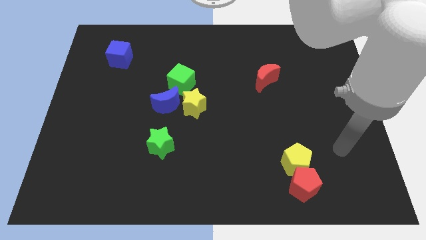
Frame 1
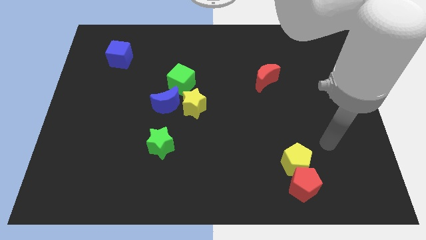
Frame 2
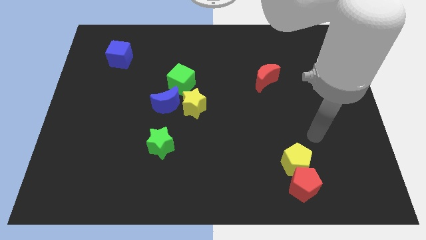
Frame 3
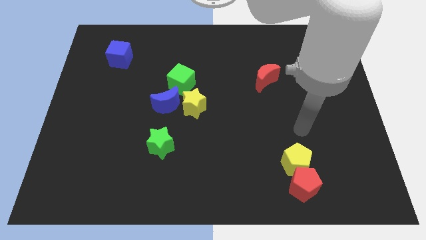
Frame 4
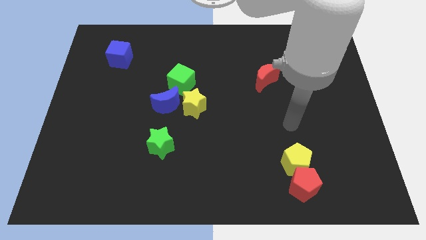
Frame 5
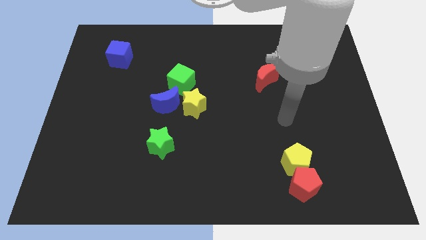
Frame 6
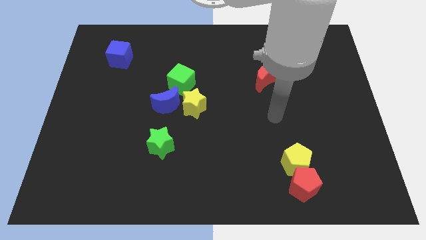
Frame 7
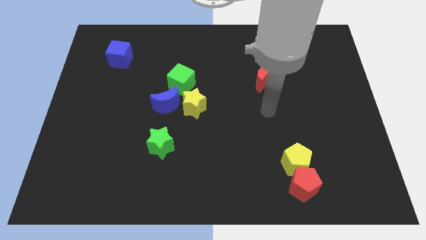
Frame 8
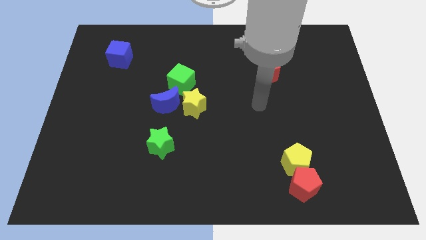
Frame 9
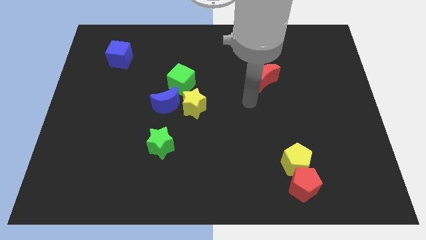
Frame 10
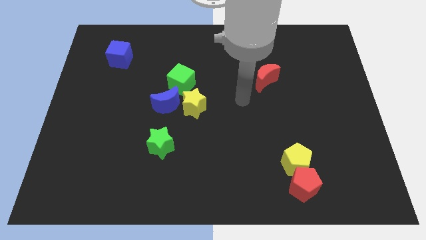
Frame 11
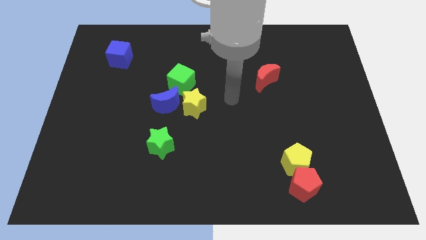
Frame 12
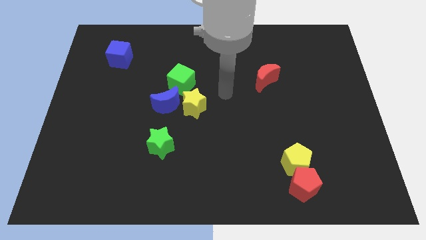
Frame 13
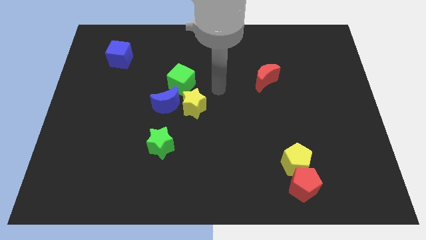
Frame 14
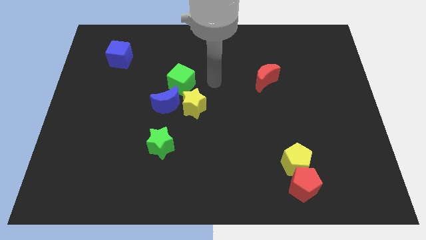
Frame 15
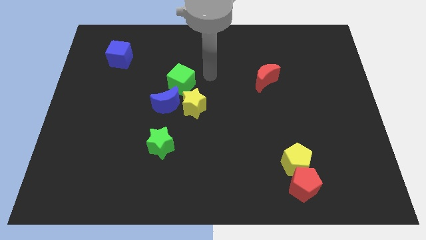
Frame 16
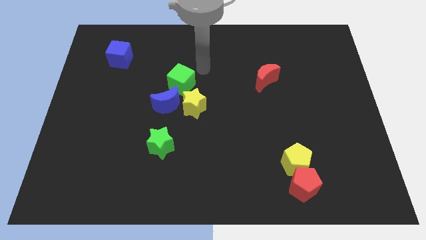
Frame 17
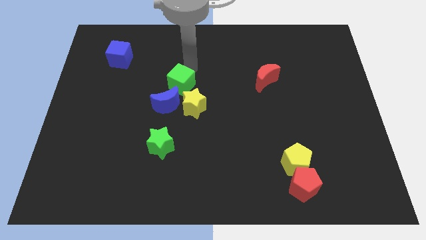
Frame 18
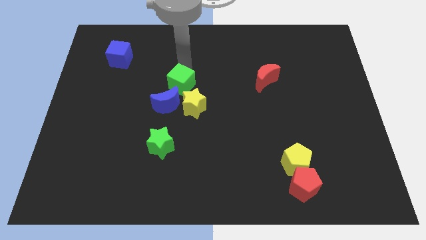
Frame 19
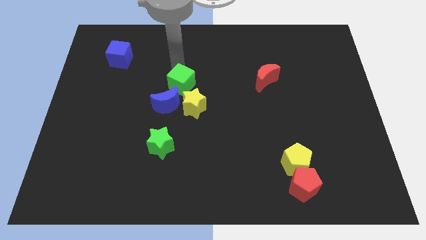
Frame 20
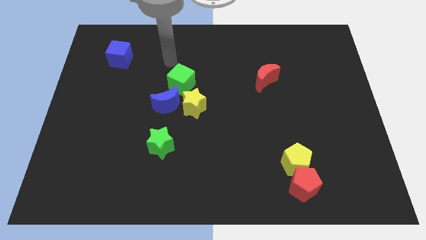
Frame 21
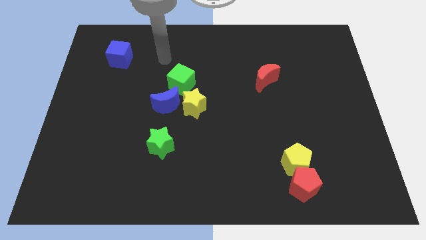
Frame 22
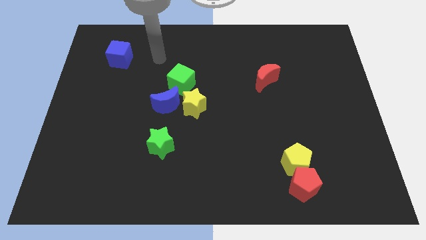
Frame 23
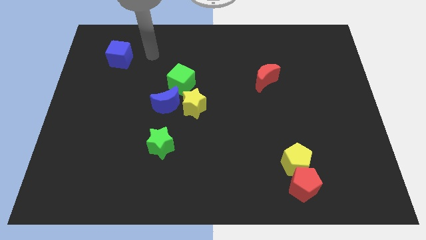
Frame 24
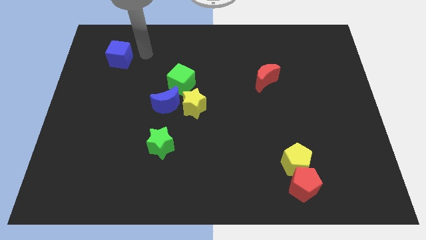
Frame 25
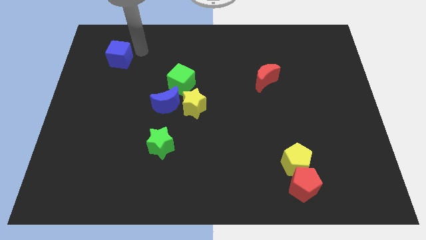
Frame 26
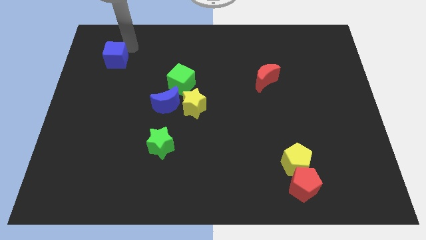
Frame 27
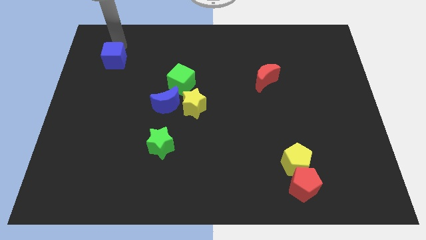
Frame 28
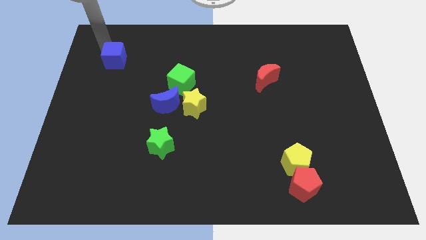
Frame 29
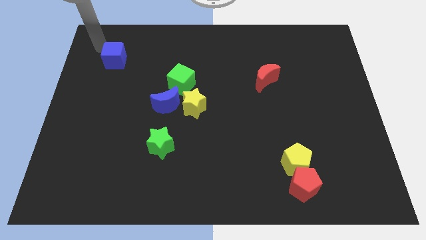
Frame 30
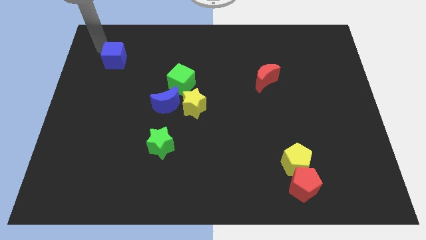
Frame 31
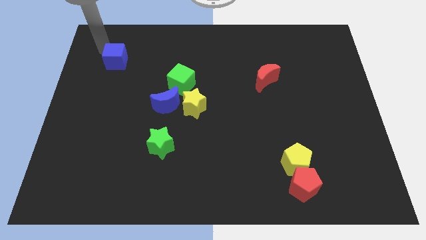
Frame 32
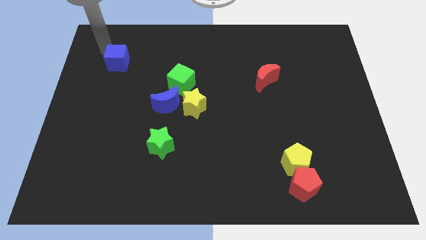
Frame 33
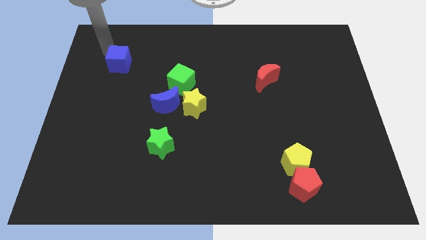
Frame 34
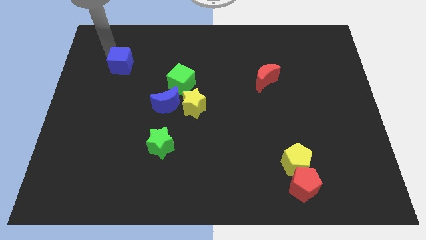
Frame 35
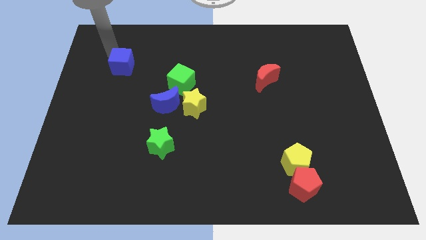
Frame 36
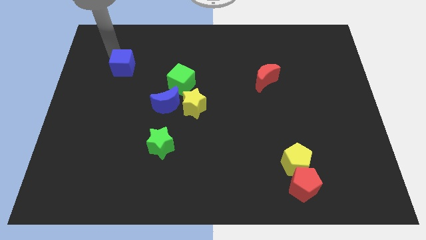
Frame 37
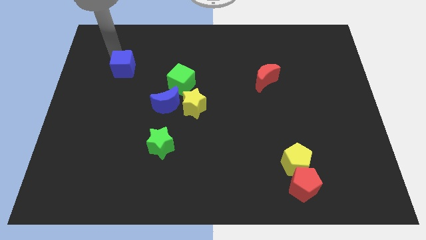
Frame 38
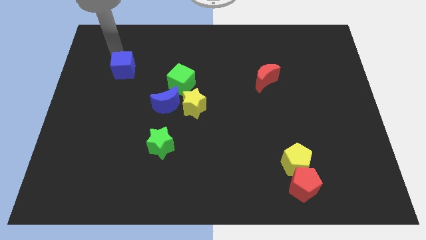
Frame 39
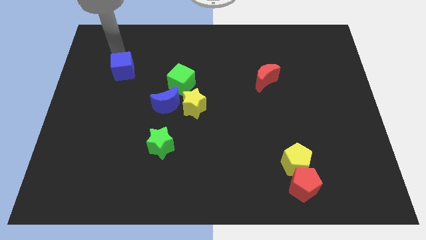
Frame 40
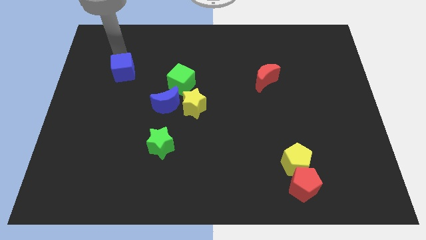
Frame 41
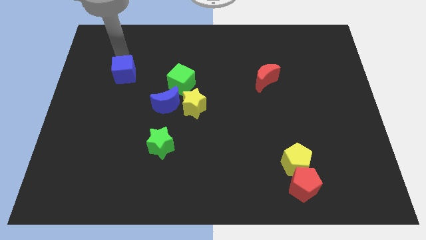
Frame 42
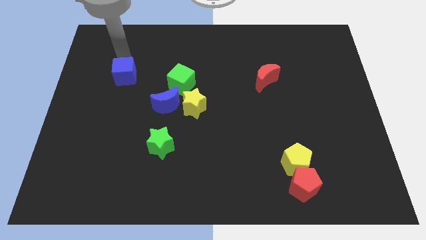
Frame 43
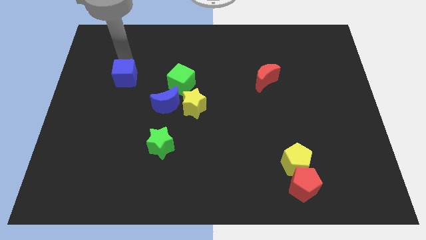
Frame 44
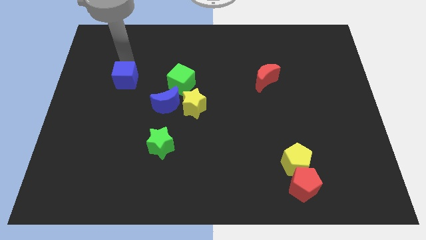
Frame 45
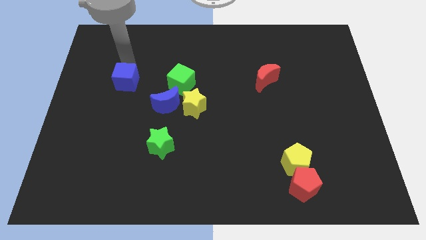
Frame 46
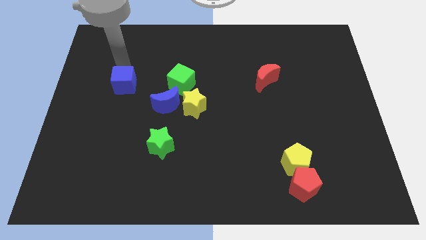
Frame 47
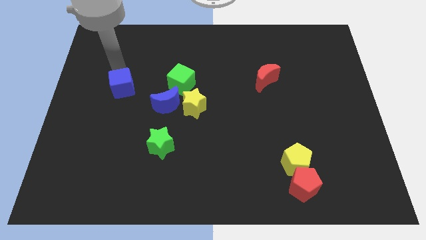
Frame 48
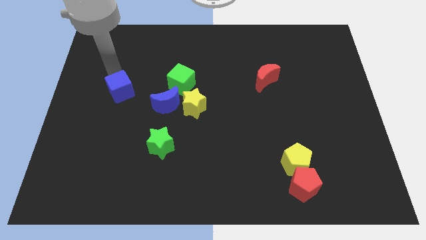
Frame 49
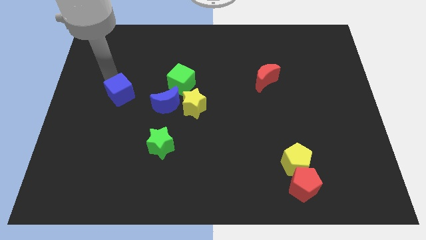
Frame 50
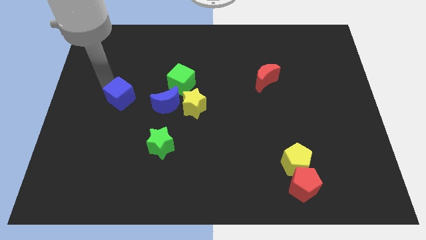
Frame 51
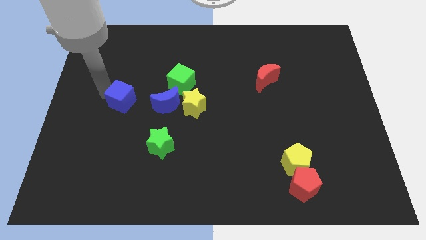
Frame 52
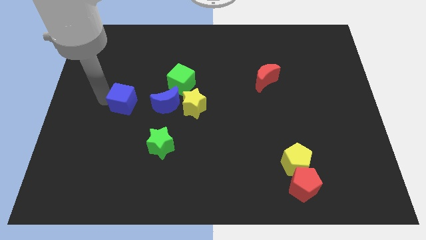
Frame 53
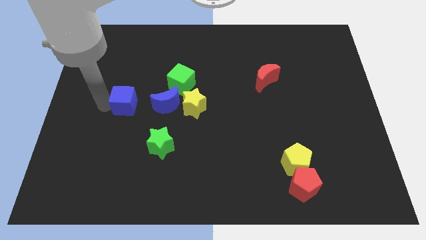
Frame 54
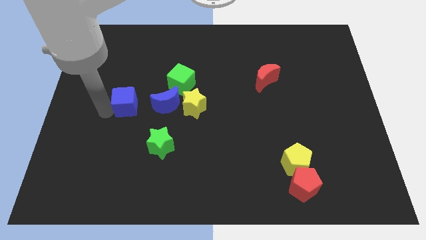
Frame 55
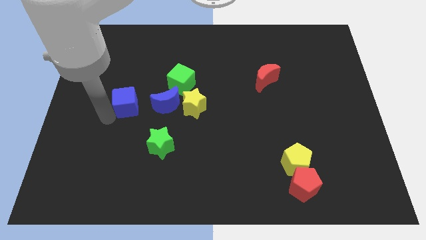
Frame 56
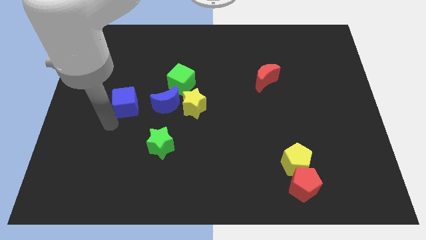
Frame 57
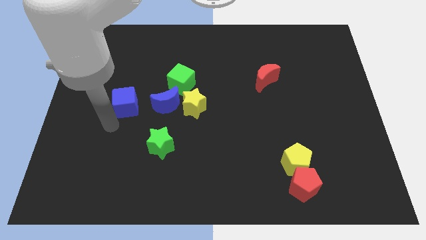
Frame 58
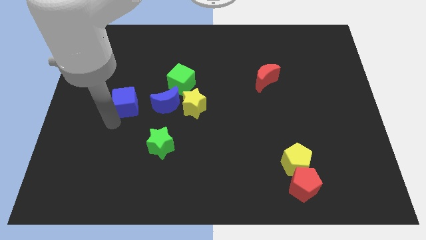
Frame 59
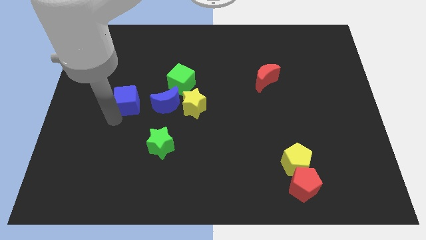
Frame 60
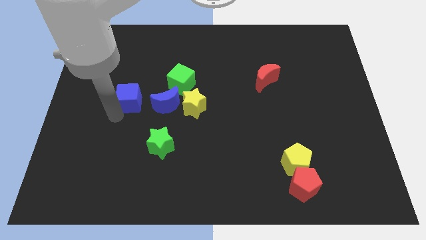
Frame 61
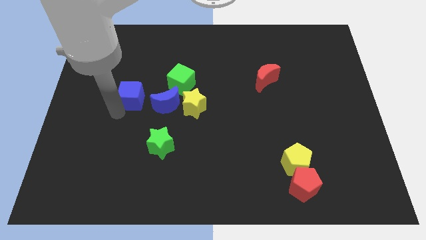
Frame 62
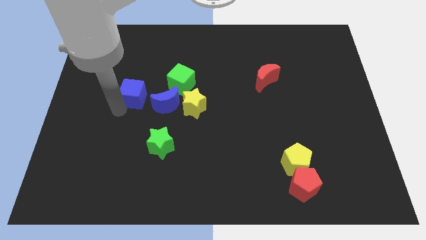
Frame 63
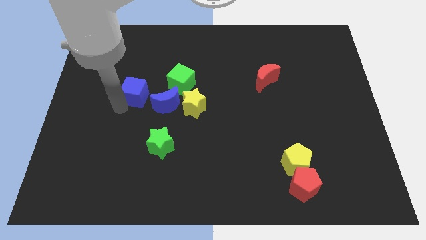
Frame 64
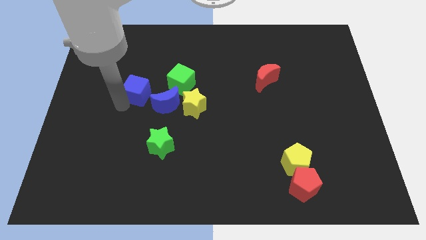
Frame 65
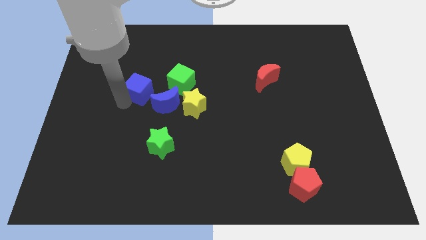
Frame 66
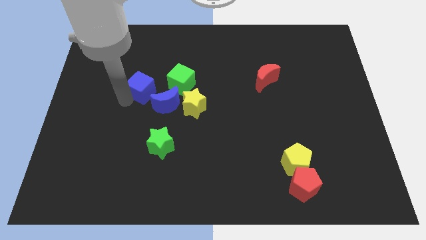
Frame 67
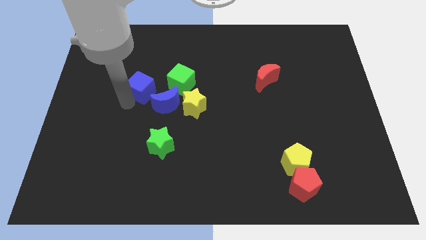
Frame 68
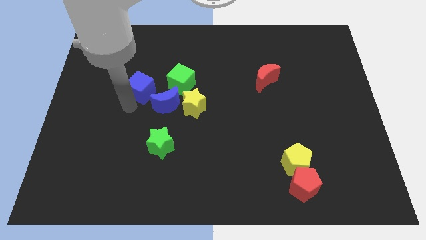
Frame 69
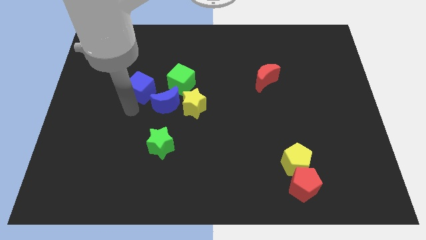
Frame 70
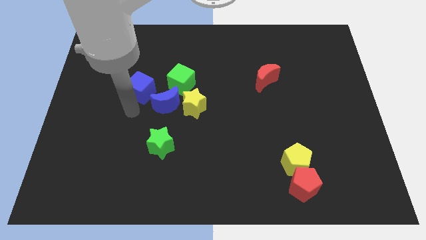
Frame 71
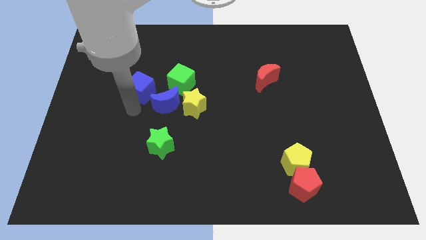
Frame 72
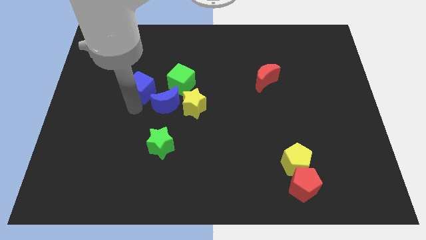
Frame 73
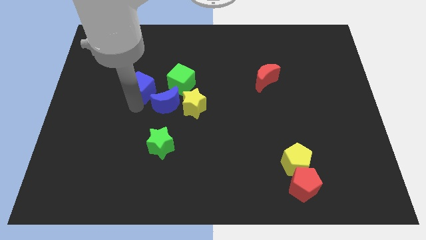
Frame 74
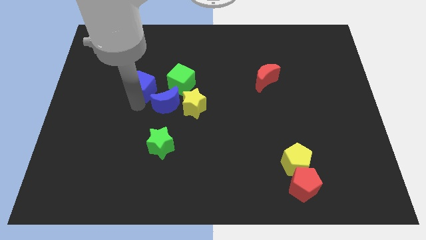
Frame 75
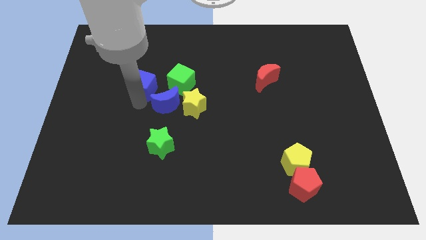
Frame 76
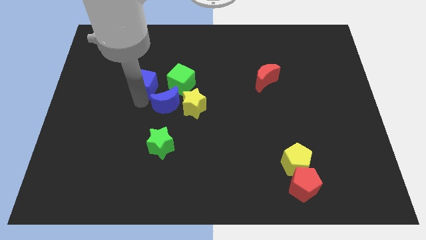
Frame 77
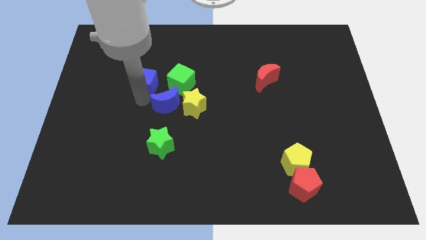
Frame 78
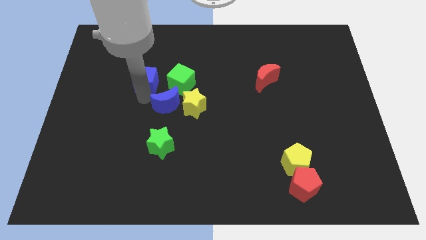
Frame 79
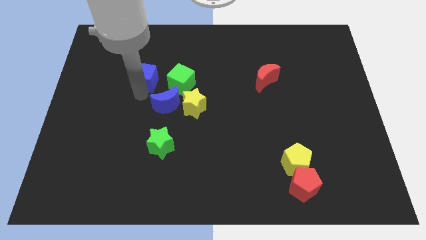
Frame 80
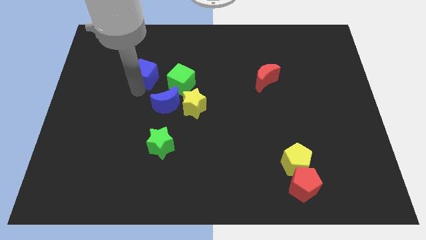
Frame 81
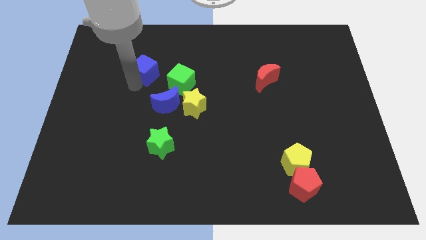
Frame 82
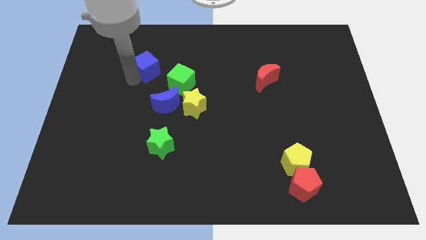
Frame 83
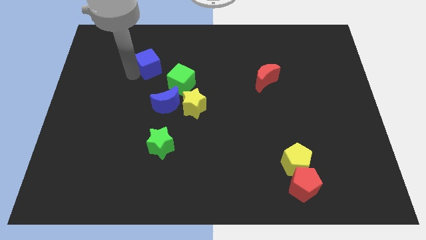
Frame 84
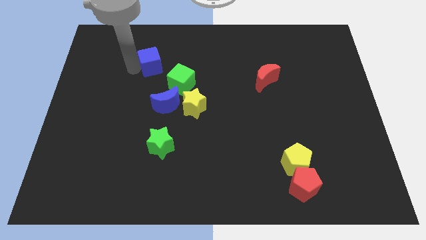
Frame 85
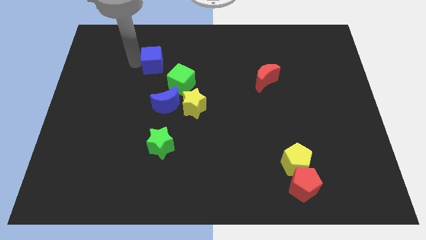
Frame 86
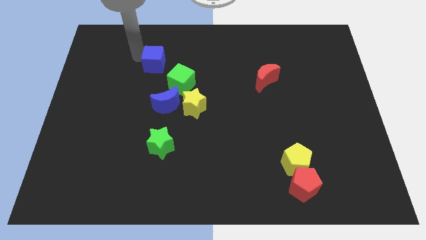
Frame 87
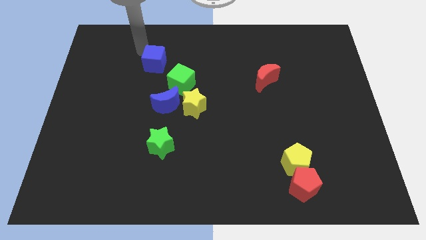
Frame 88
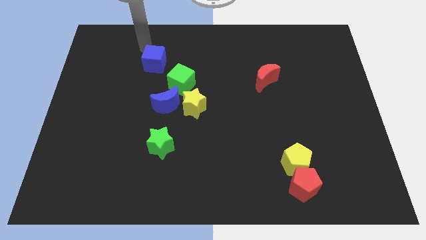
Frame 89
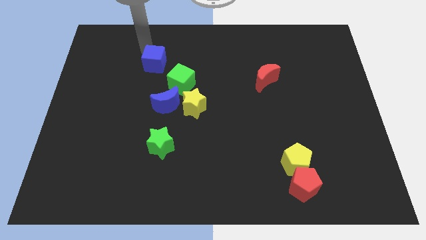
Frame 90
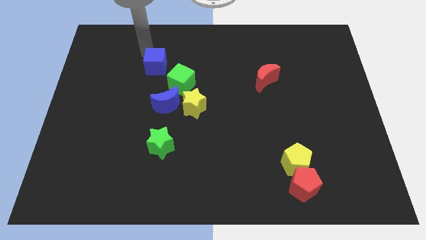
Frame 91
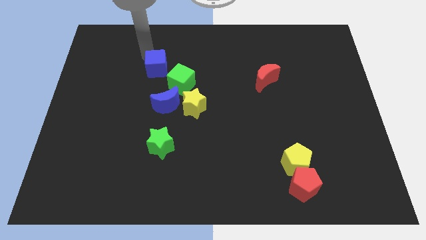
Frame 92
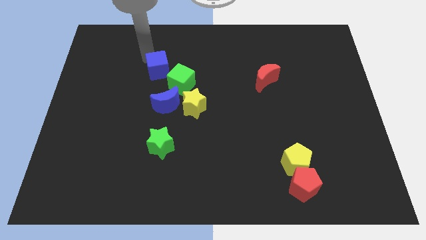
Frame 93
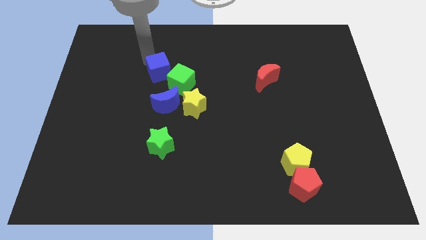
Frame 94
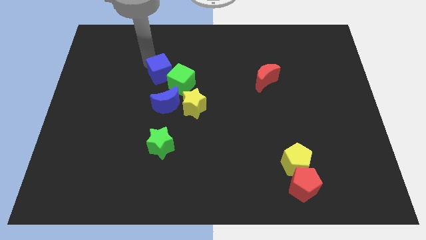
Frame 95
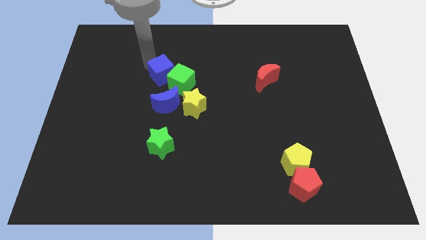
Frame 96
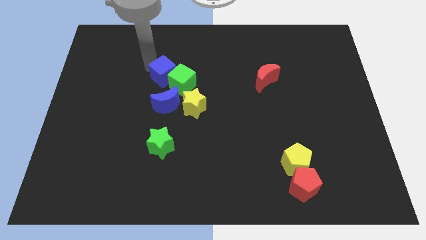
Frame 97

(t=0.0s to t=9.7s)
put the blue cube diagonally up and to the left of the yellow star
